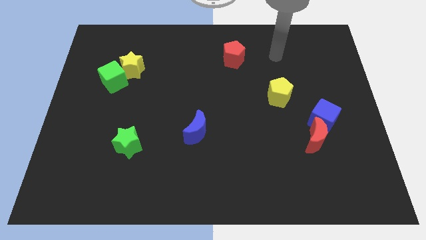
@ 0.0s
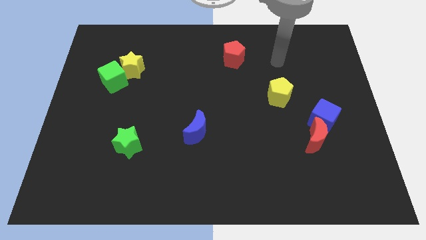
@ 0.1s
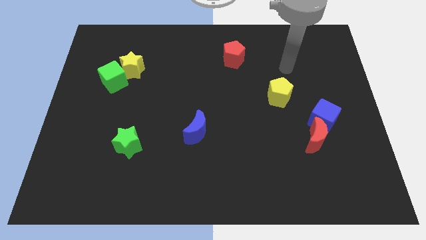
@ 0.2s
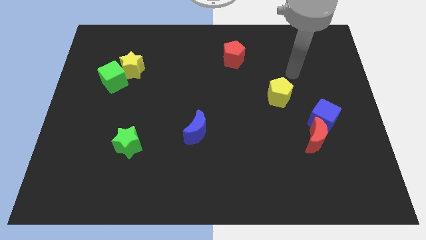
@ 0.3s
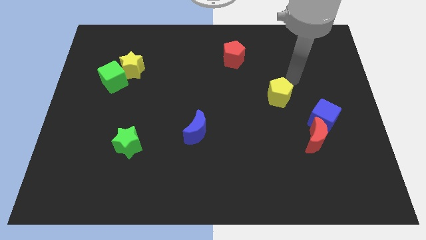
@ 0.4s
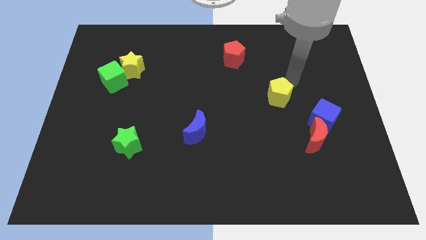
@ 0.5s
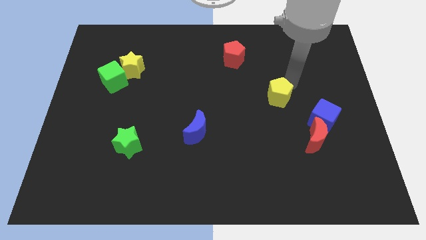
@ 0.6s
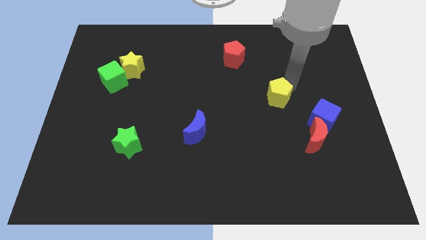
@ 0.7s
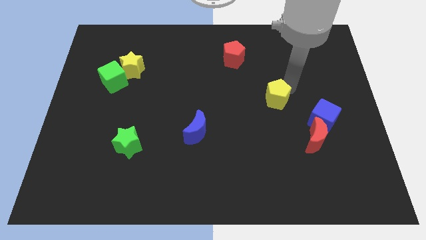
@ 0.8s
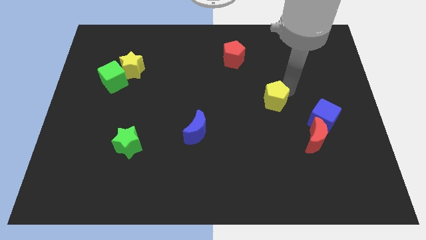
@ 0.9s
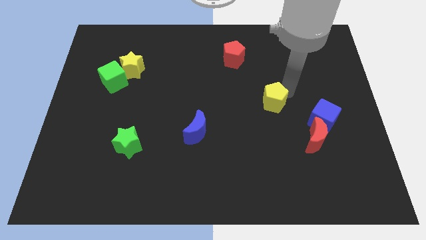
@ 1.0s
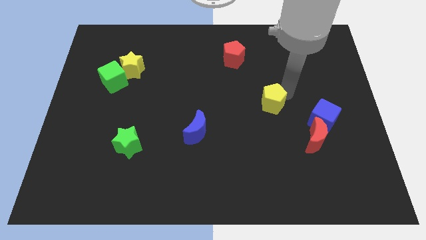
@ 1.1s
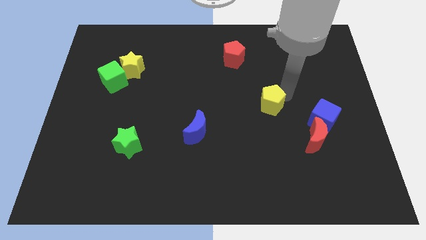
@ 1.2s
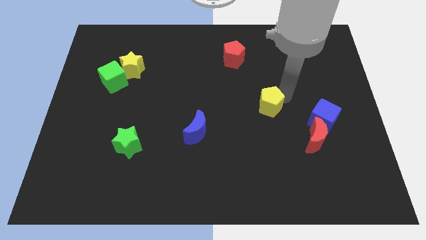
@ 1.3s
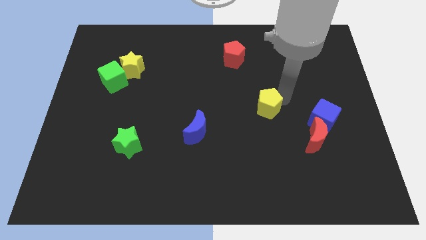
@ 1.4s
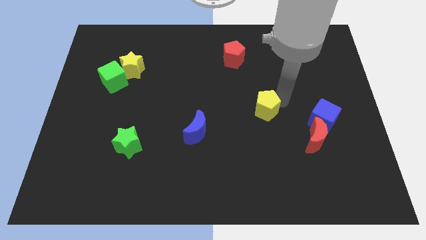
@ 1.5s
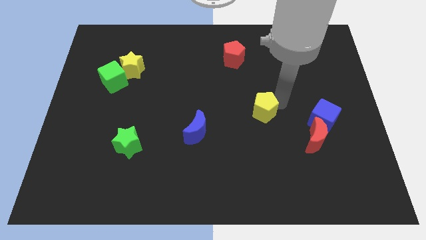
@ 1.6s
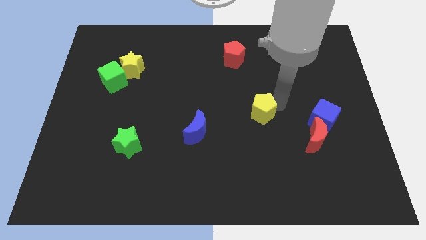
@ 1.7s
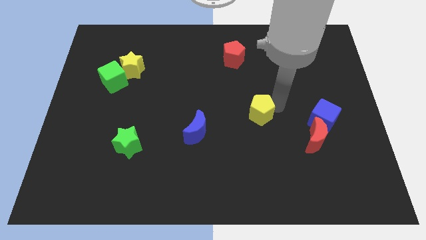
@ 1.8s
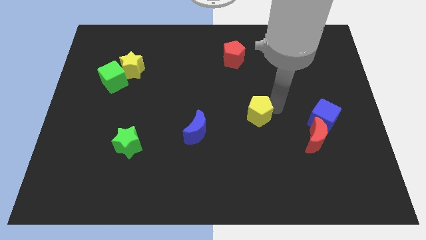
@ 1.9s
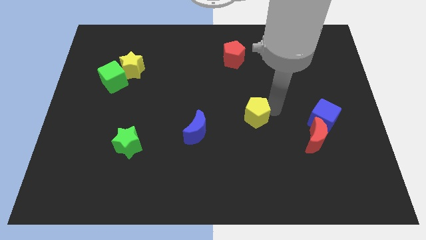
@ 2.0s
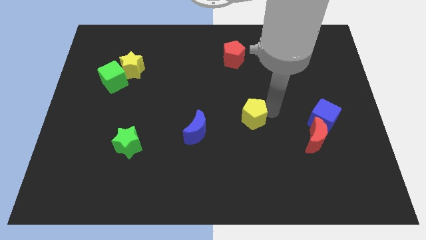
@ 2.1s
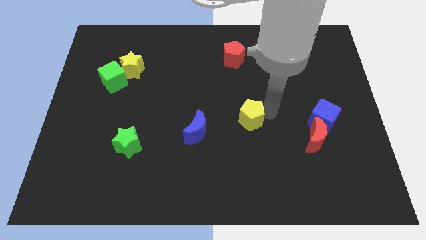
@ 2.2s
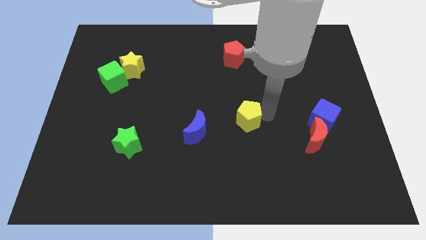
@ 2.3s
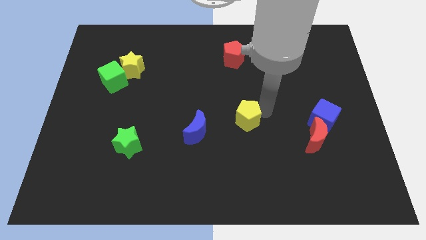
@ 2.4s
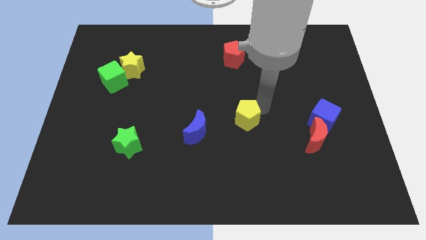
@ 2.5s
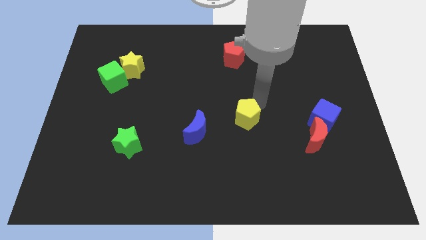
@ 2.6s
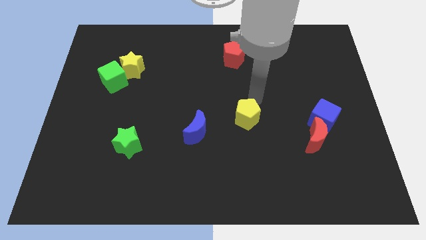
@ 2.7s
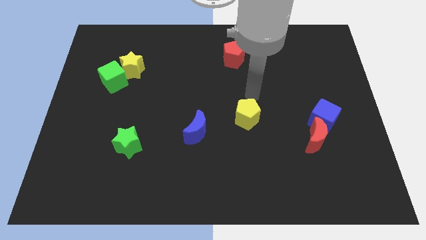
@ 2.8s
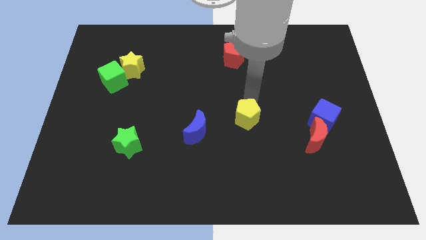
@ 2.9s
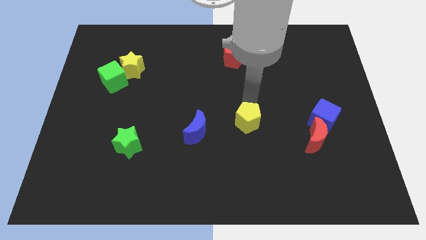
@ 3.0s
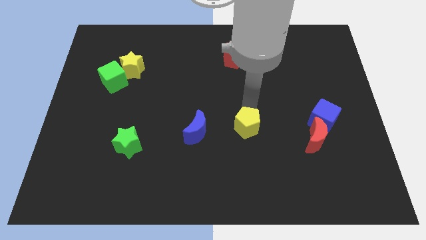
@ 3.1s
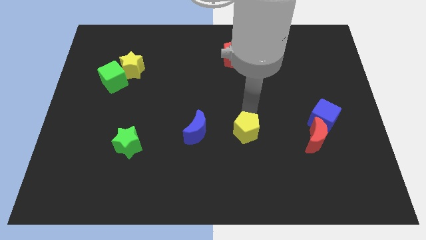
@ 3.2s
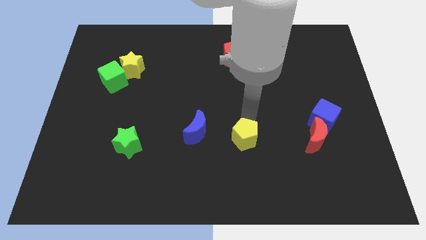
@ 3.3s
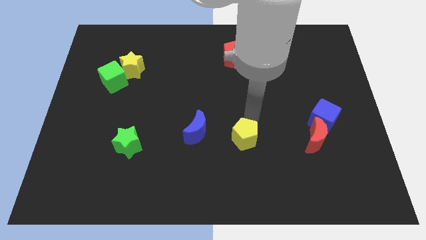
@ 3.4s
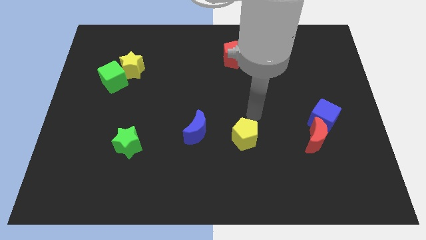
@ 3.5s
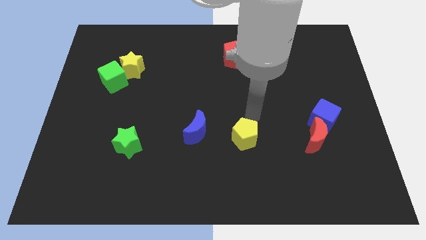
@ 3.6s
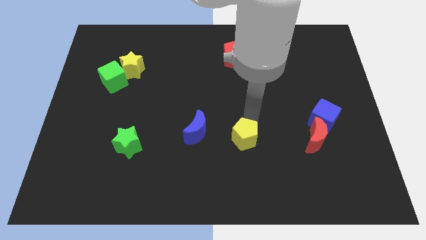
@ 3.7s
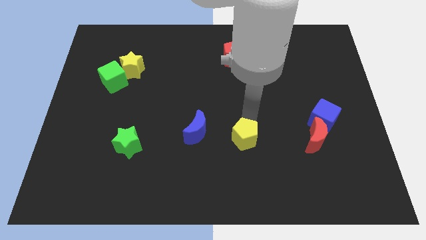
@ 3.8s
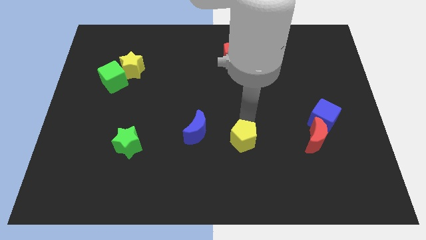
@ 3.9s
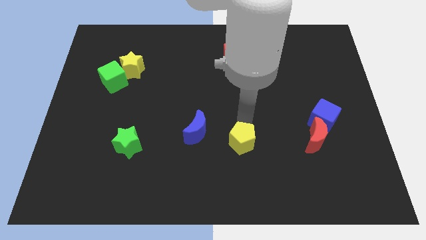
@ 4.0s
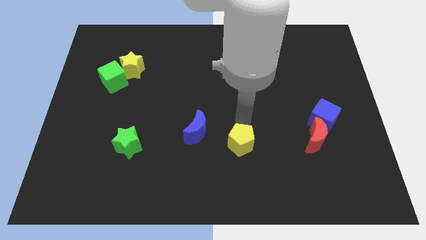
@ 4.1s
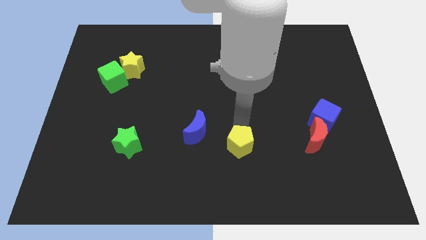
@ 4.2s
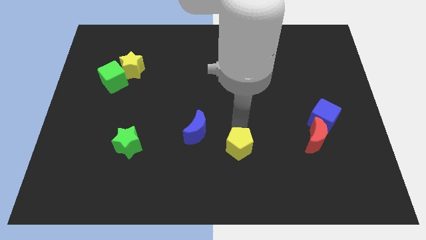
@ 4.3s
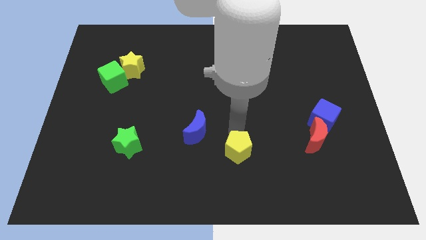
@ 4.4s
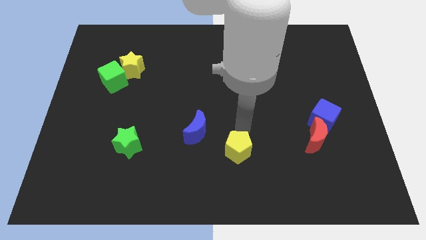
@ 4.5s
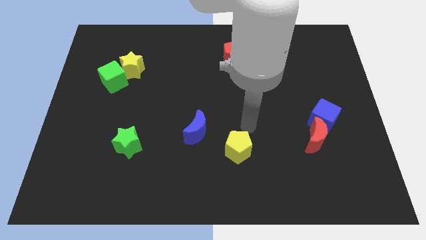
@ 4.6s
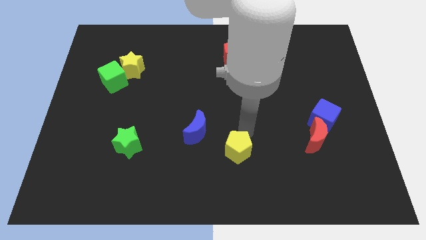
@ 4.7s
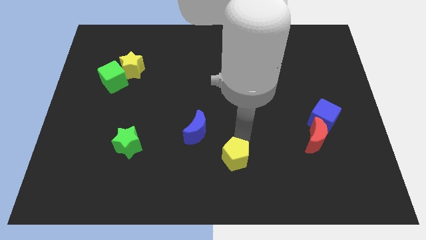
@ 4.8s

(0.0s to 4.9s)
put the yellow pentagon to the bottom side

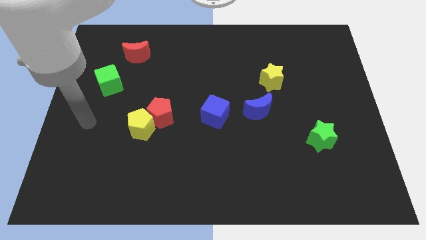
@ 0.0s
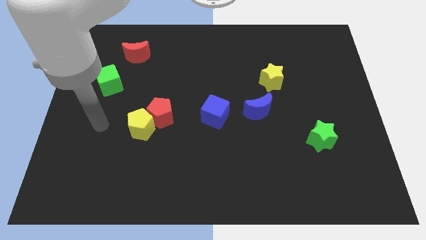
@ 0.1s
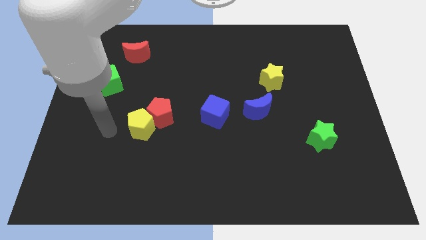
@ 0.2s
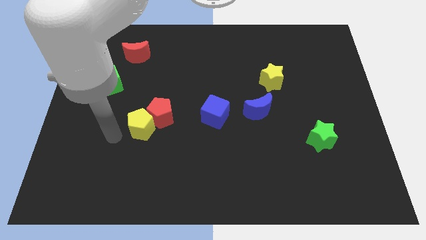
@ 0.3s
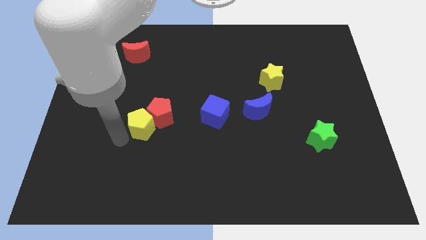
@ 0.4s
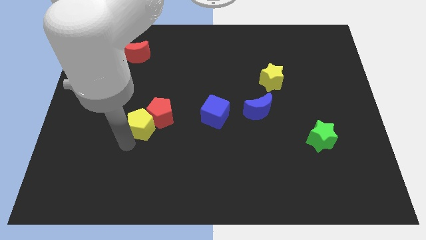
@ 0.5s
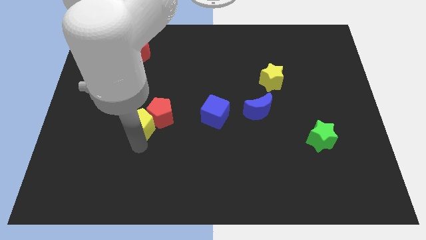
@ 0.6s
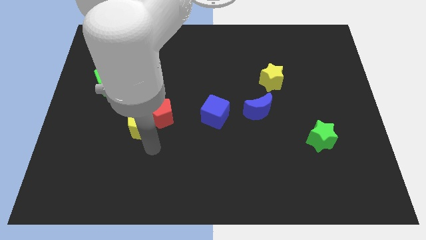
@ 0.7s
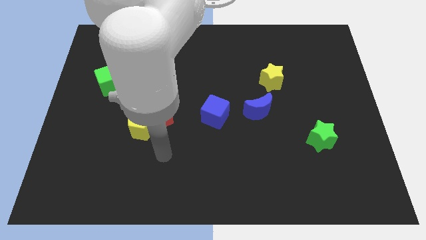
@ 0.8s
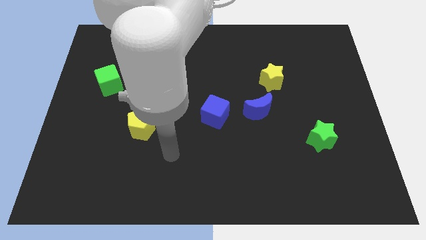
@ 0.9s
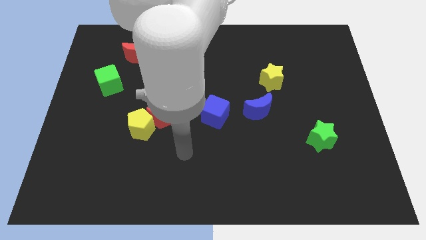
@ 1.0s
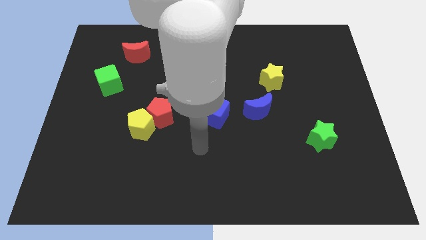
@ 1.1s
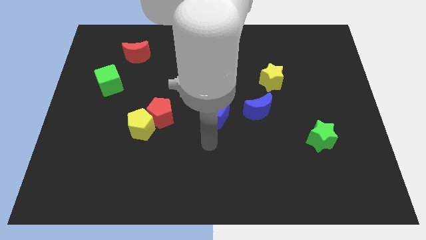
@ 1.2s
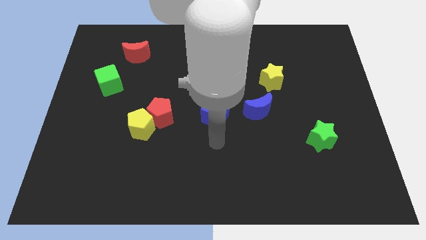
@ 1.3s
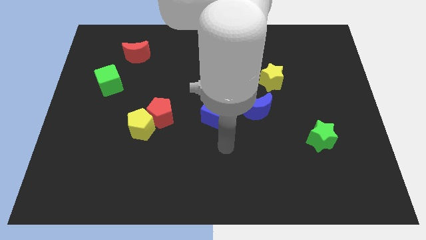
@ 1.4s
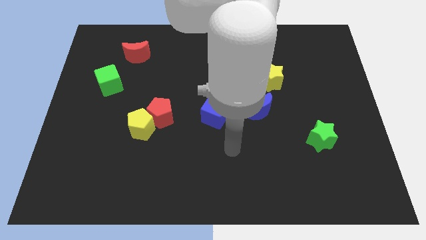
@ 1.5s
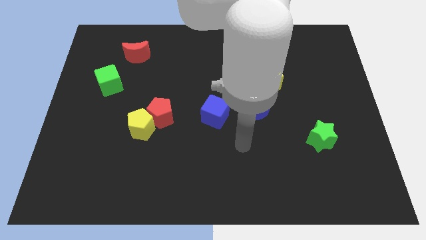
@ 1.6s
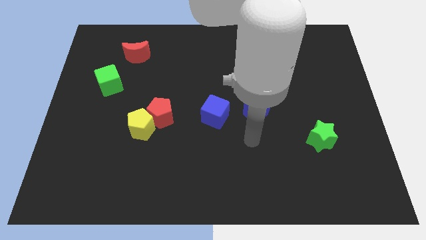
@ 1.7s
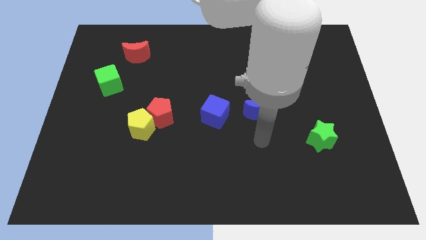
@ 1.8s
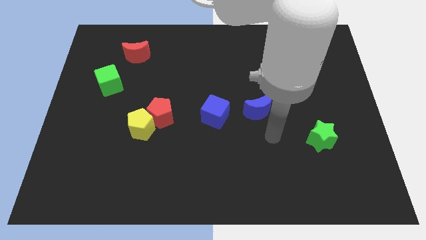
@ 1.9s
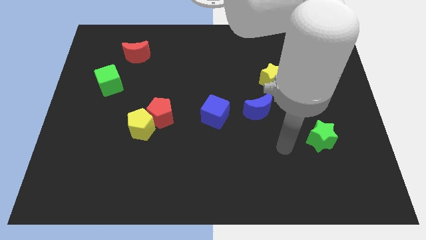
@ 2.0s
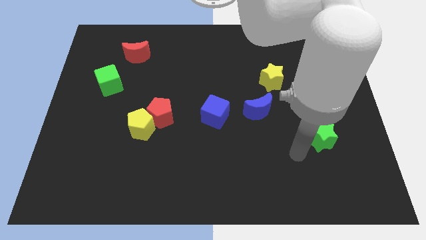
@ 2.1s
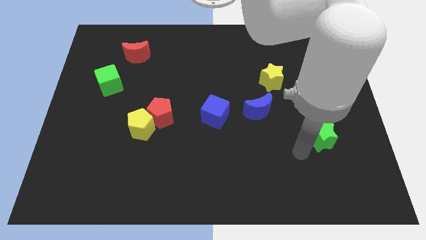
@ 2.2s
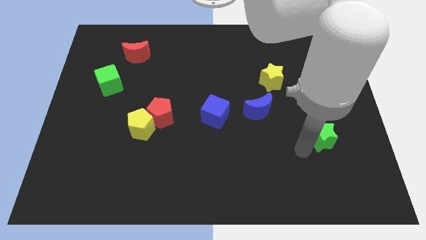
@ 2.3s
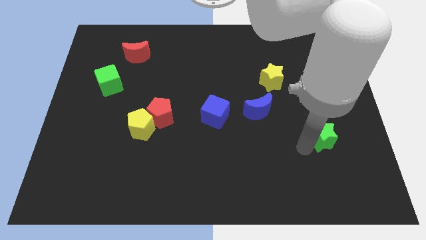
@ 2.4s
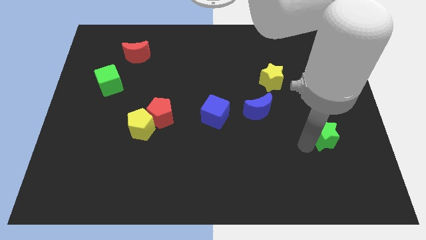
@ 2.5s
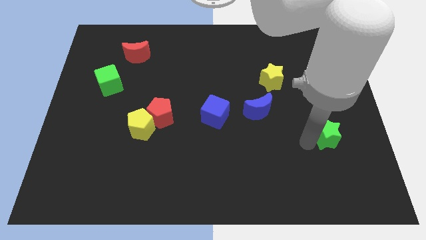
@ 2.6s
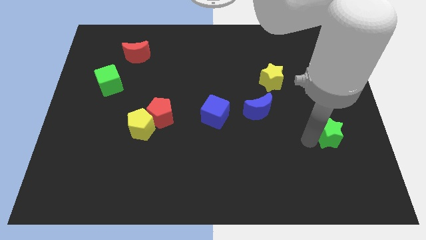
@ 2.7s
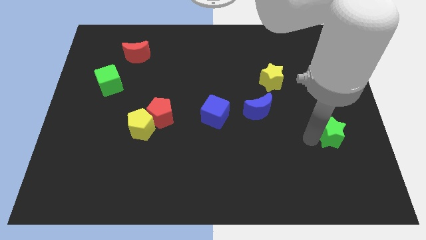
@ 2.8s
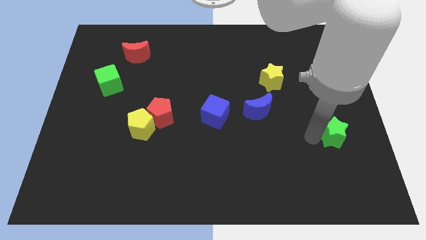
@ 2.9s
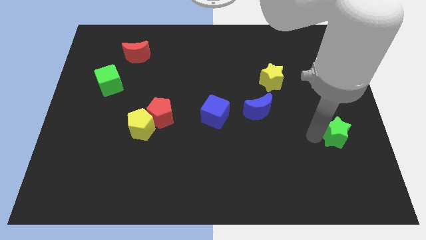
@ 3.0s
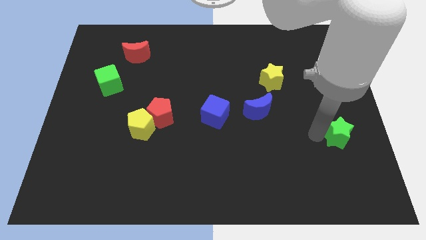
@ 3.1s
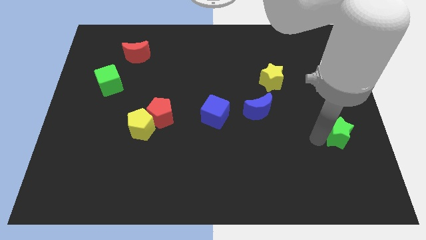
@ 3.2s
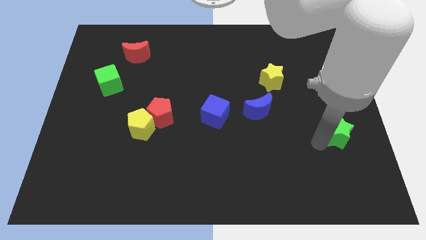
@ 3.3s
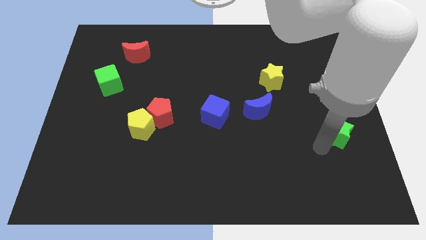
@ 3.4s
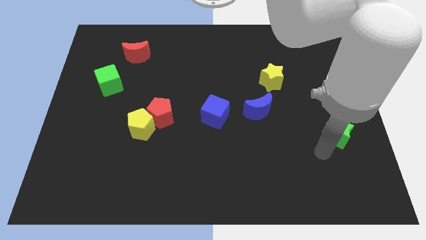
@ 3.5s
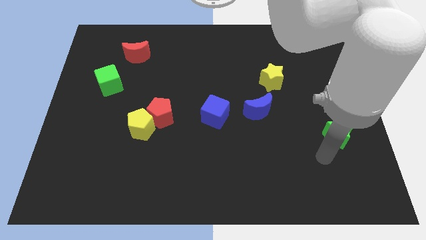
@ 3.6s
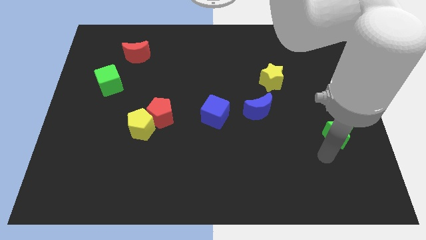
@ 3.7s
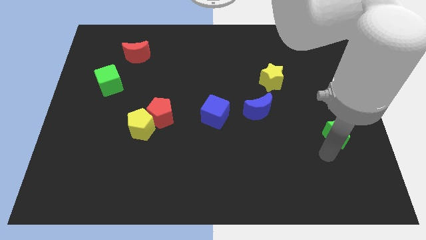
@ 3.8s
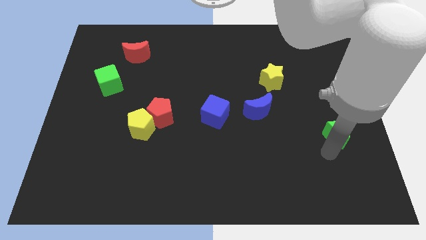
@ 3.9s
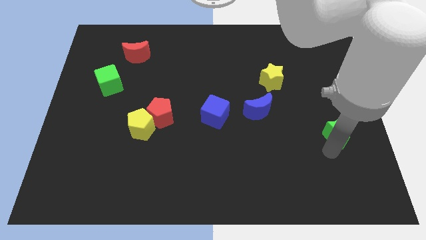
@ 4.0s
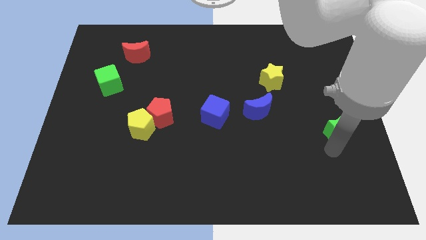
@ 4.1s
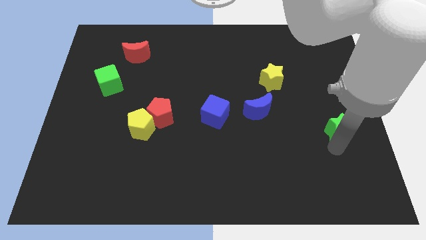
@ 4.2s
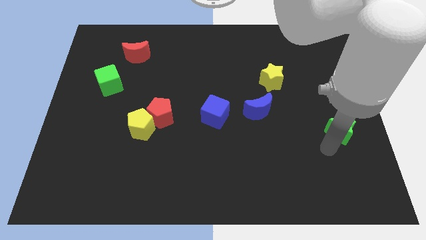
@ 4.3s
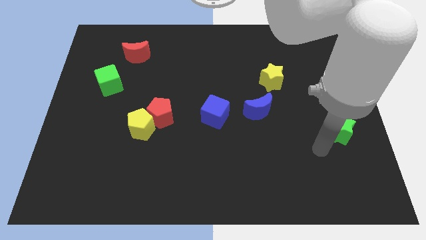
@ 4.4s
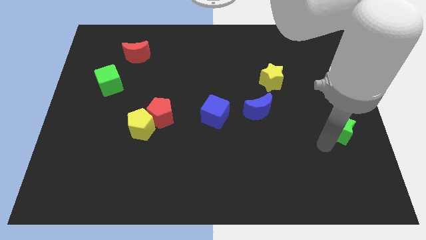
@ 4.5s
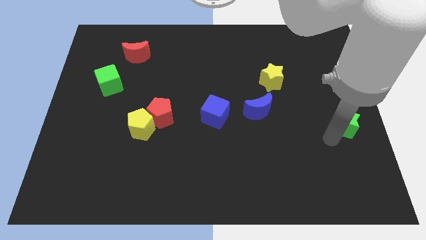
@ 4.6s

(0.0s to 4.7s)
put the green star to the right side
